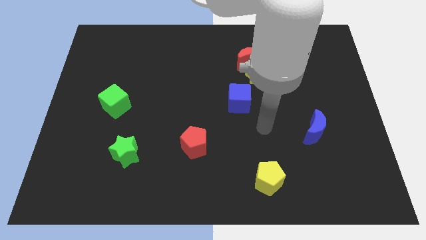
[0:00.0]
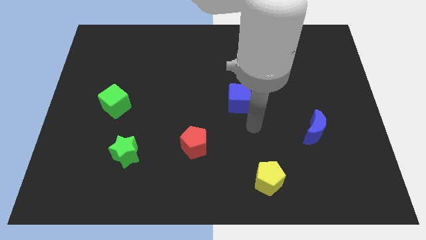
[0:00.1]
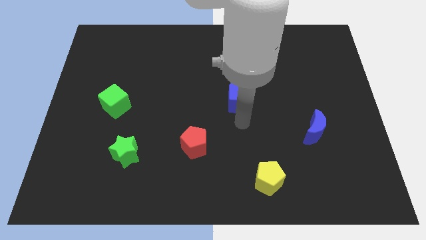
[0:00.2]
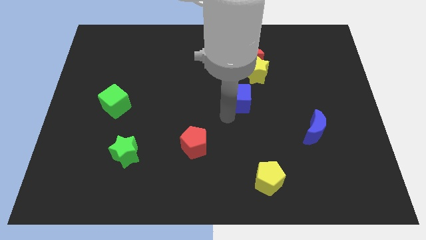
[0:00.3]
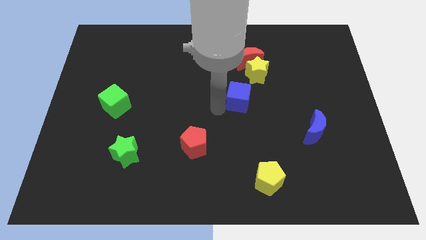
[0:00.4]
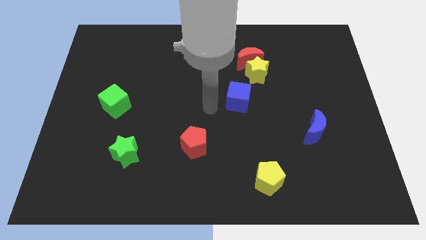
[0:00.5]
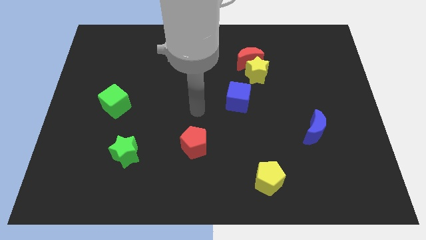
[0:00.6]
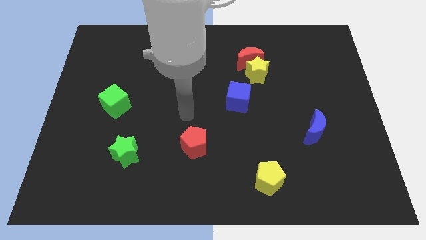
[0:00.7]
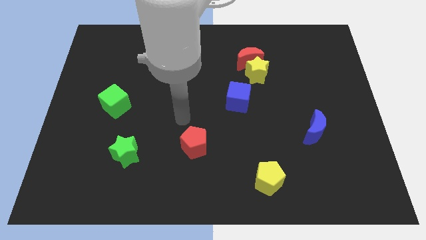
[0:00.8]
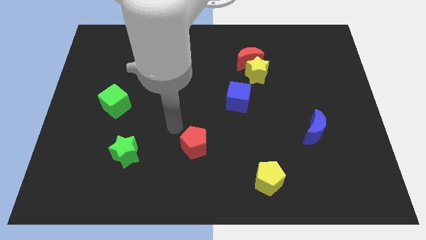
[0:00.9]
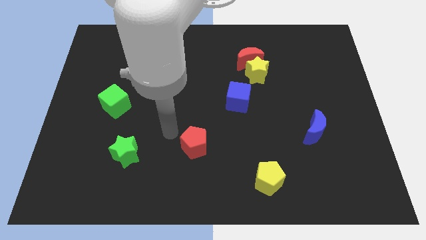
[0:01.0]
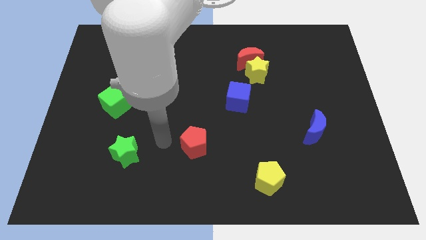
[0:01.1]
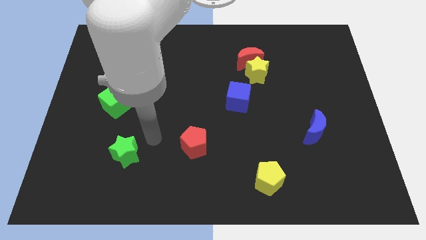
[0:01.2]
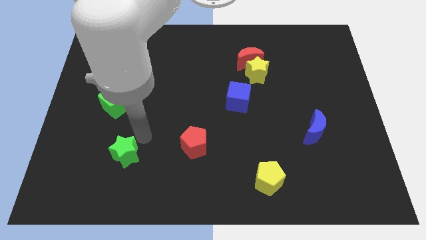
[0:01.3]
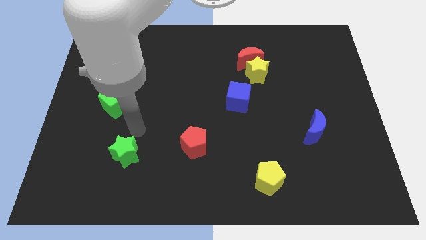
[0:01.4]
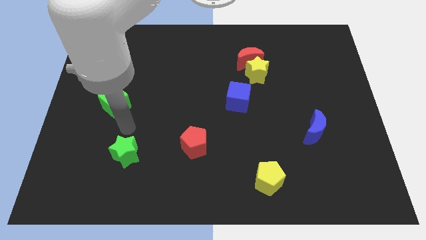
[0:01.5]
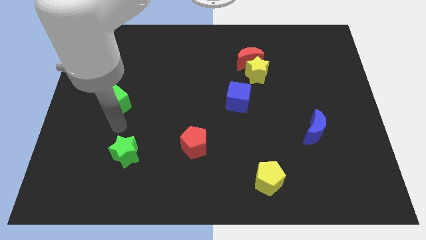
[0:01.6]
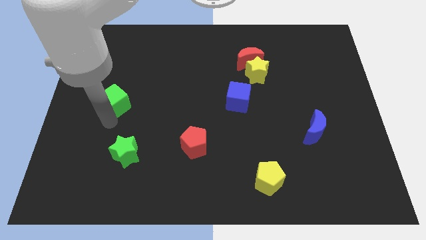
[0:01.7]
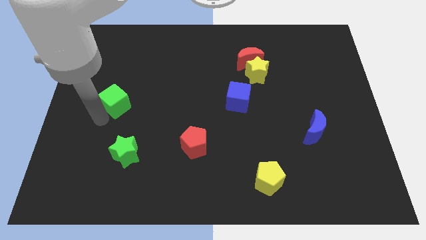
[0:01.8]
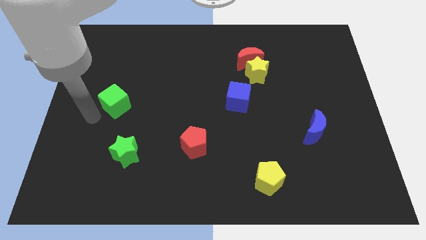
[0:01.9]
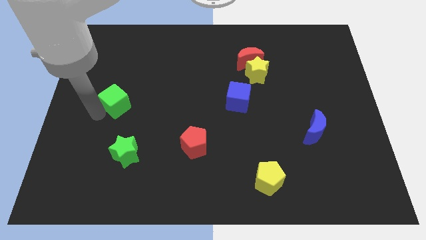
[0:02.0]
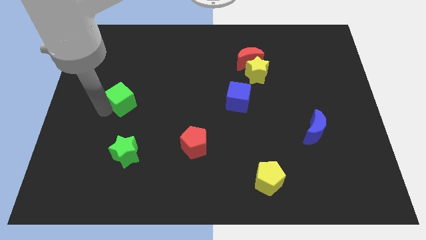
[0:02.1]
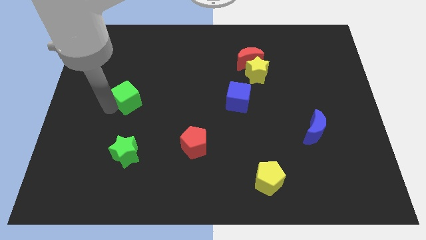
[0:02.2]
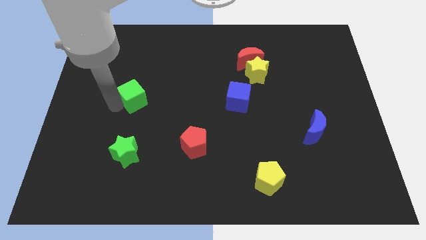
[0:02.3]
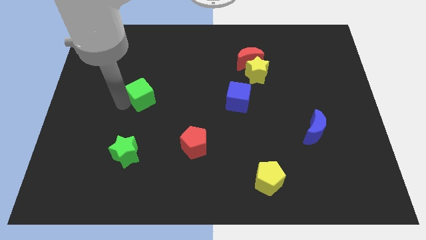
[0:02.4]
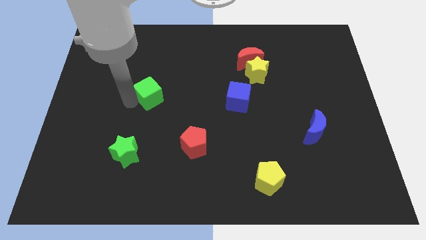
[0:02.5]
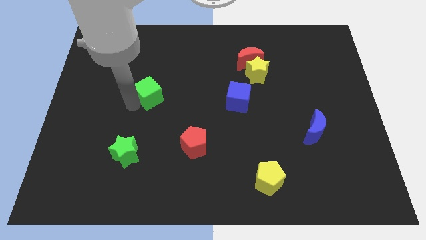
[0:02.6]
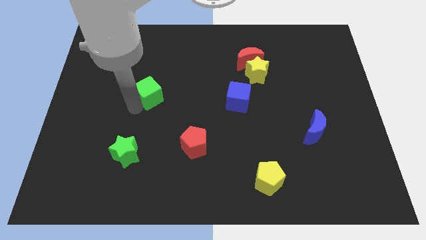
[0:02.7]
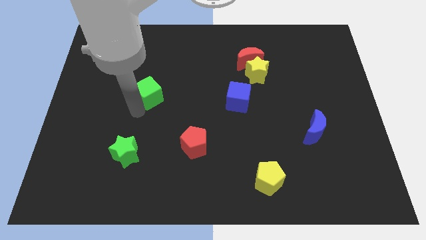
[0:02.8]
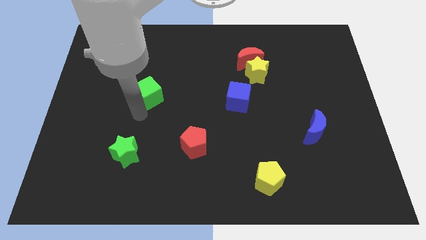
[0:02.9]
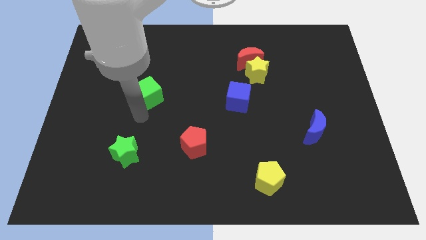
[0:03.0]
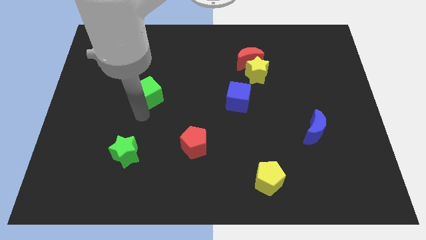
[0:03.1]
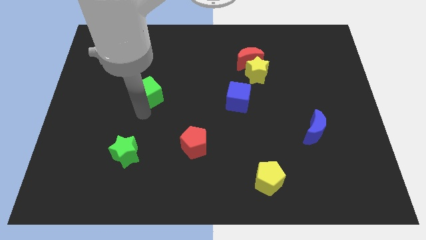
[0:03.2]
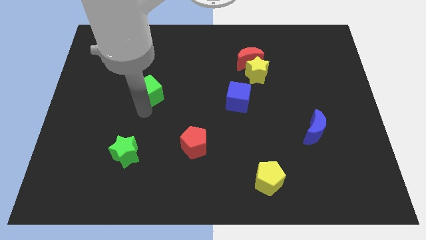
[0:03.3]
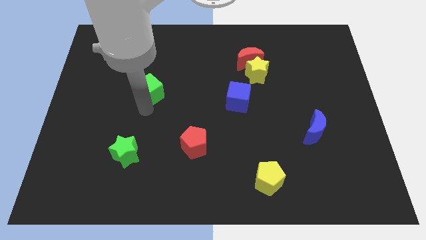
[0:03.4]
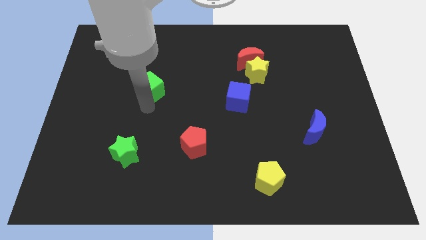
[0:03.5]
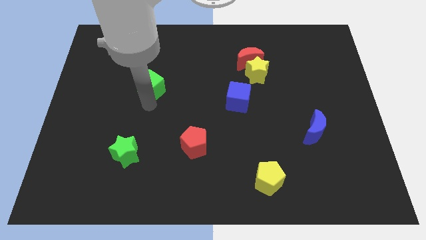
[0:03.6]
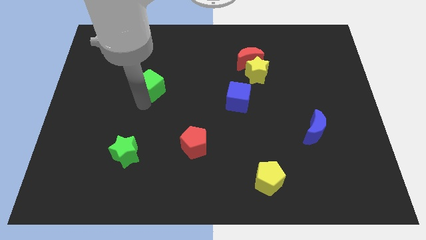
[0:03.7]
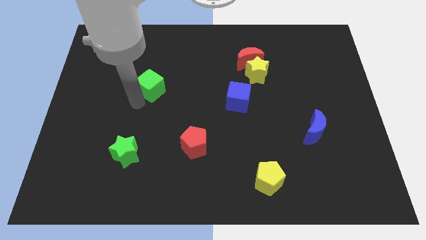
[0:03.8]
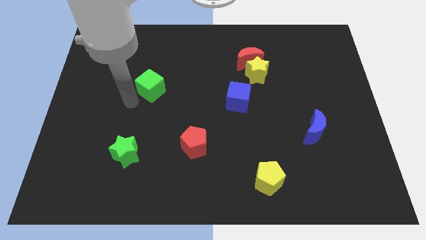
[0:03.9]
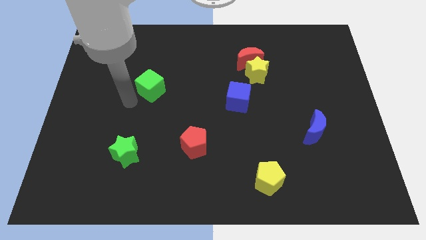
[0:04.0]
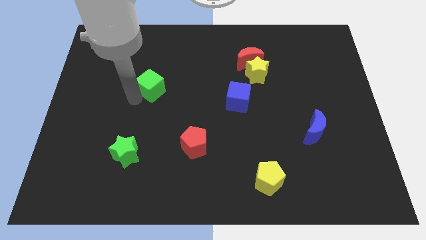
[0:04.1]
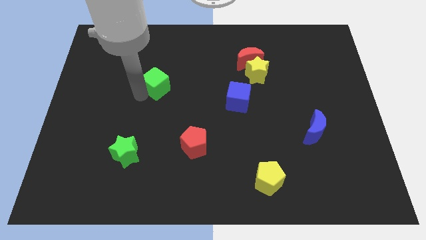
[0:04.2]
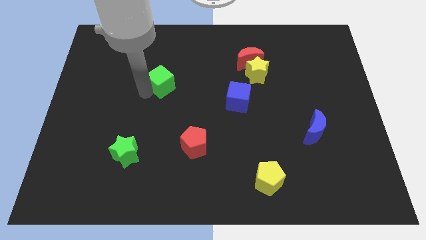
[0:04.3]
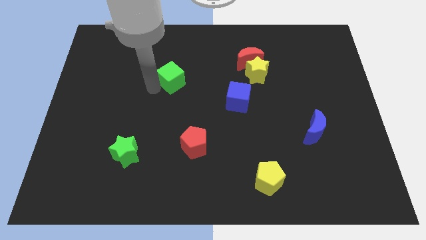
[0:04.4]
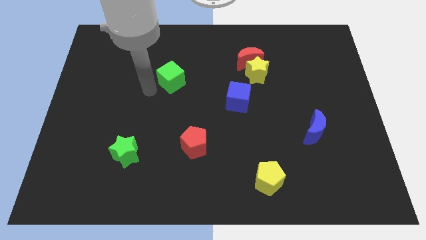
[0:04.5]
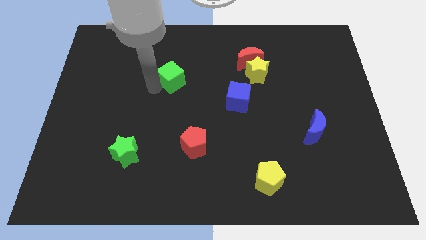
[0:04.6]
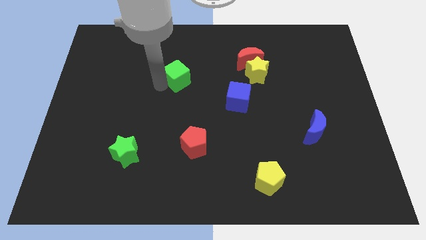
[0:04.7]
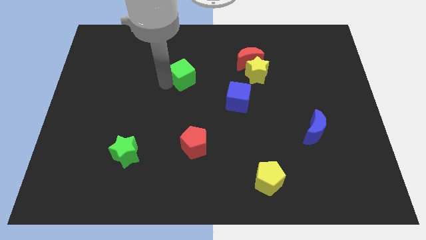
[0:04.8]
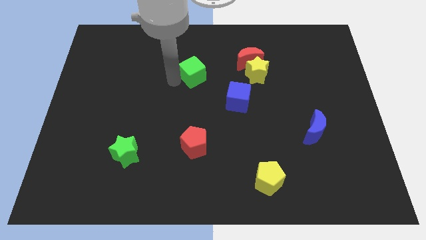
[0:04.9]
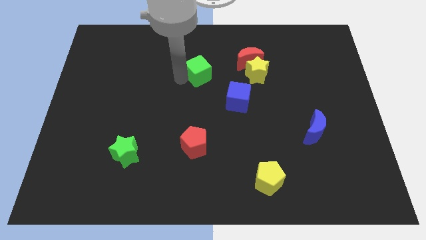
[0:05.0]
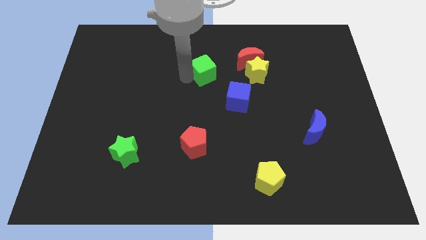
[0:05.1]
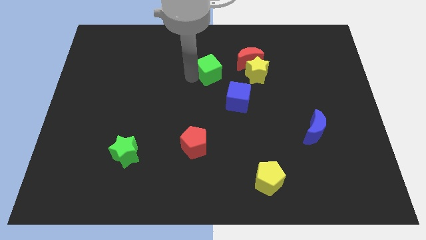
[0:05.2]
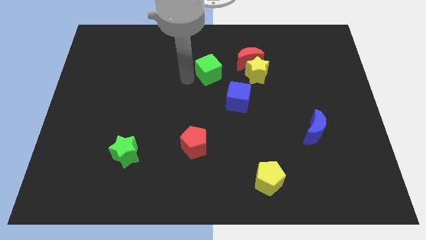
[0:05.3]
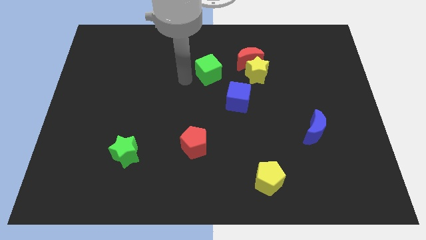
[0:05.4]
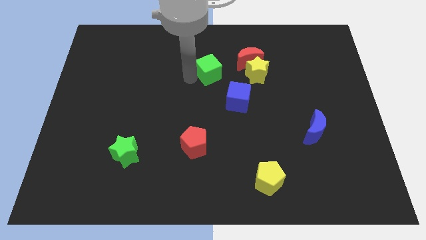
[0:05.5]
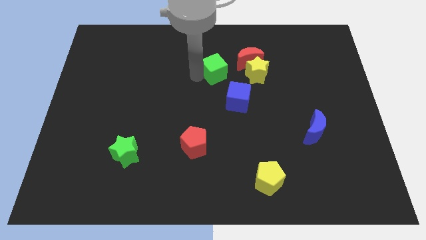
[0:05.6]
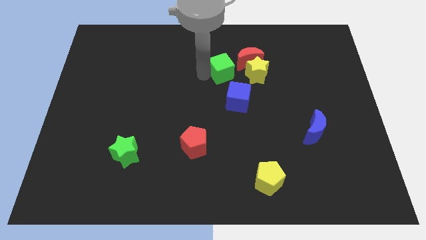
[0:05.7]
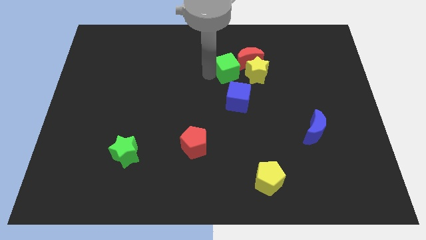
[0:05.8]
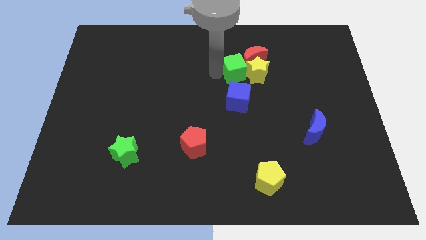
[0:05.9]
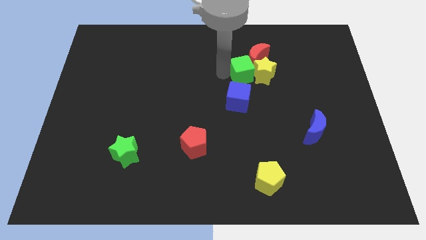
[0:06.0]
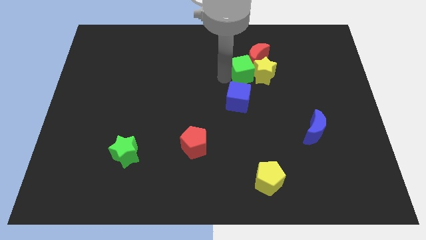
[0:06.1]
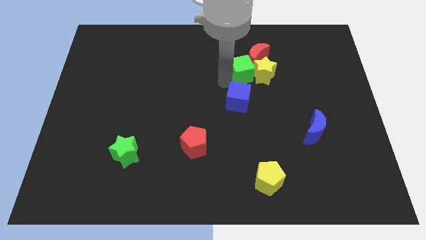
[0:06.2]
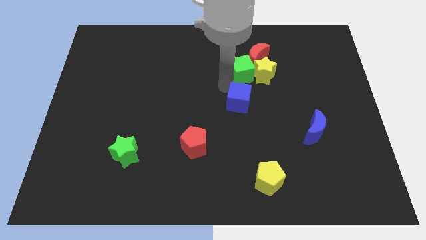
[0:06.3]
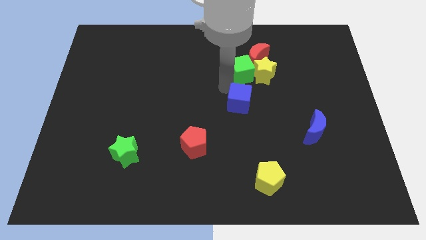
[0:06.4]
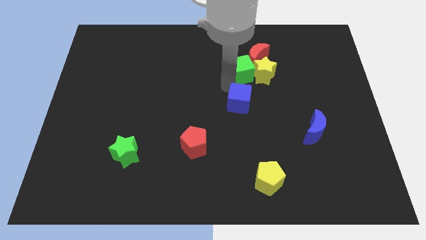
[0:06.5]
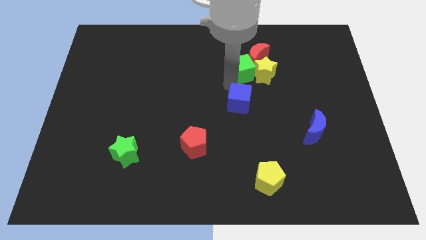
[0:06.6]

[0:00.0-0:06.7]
push the green cube next to the red moon

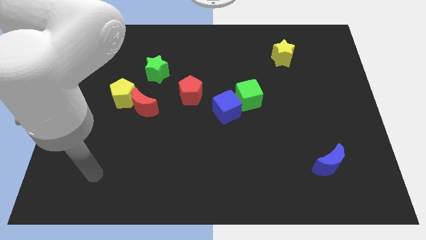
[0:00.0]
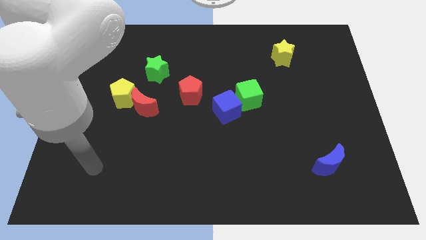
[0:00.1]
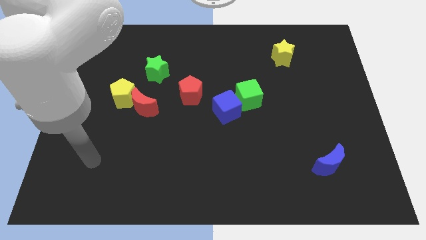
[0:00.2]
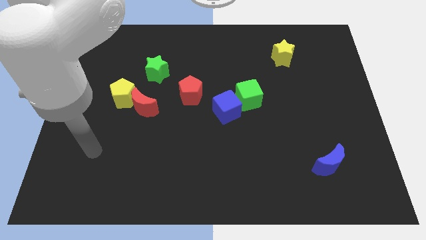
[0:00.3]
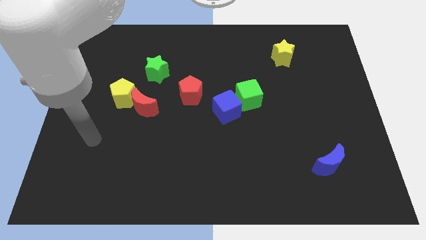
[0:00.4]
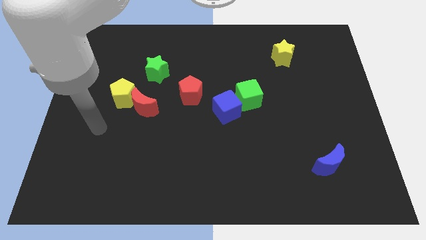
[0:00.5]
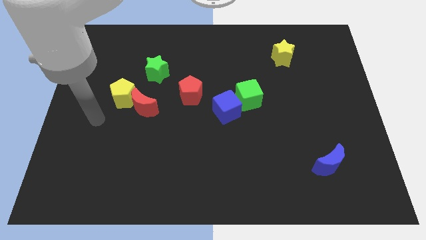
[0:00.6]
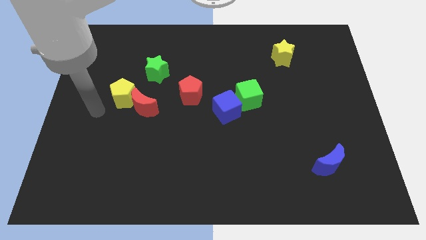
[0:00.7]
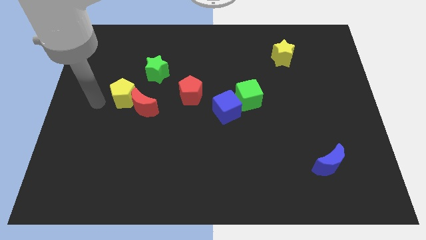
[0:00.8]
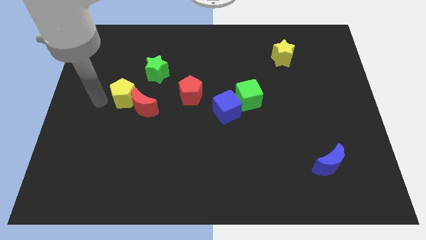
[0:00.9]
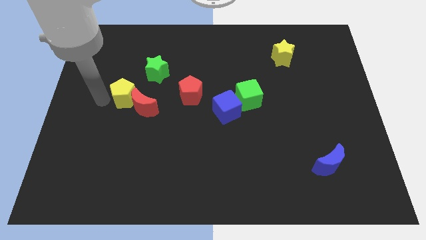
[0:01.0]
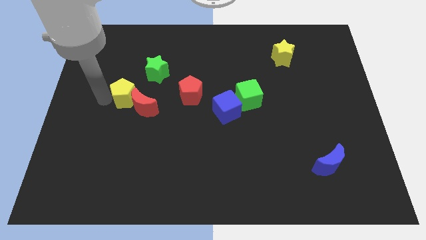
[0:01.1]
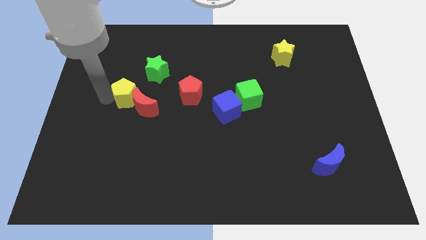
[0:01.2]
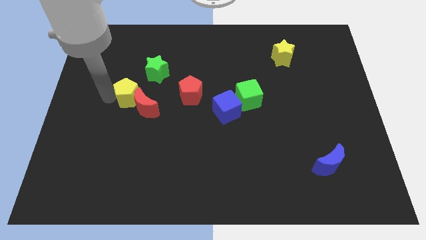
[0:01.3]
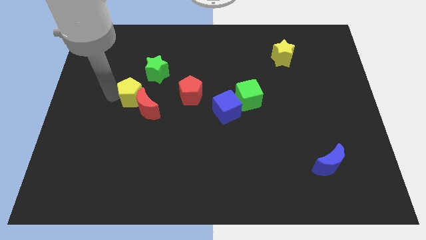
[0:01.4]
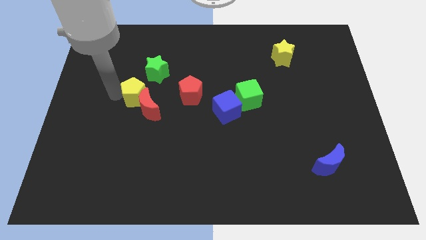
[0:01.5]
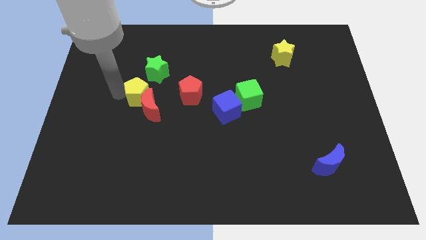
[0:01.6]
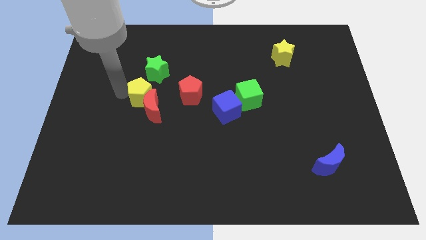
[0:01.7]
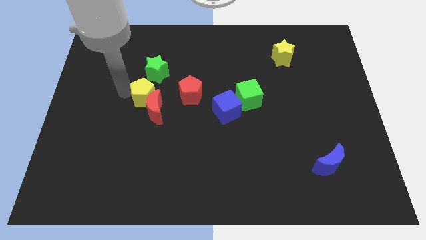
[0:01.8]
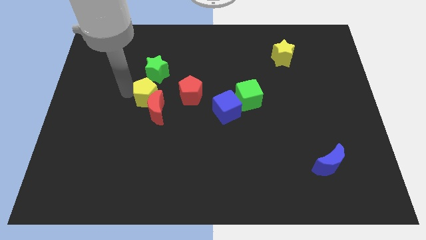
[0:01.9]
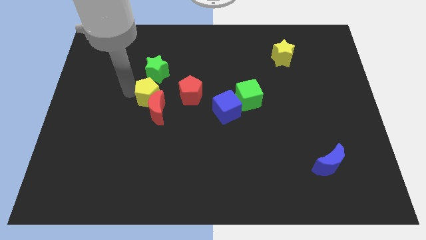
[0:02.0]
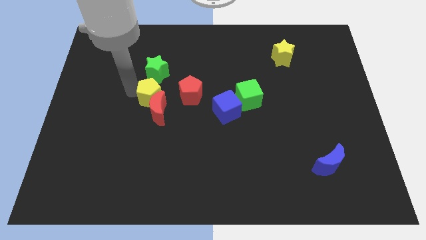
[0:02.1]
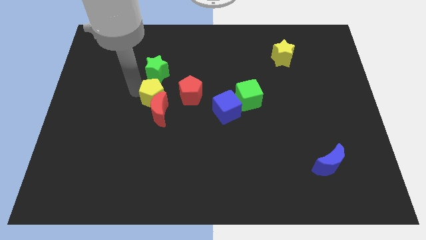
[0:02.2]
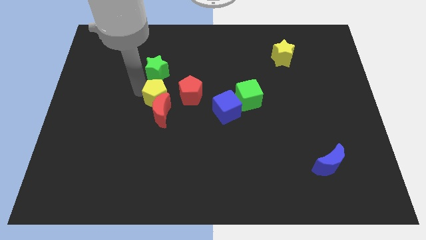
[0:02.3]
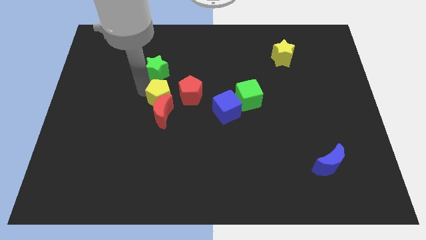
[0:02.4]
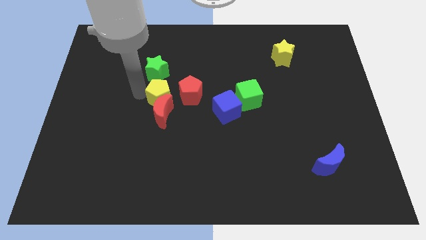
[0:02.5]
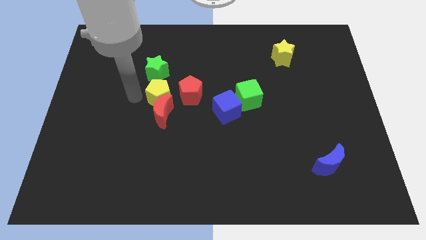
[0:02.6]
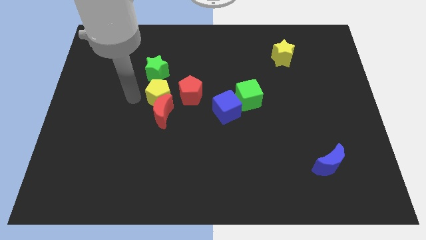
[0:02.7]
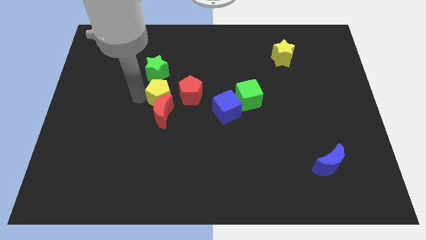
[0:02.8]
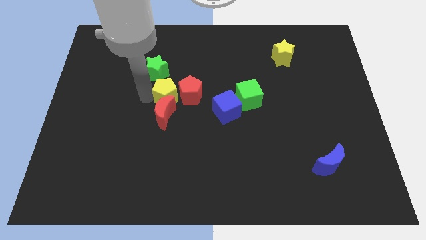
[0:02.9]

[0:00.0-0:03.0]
move the yellow pentagon to the red pentagon
